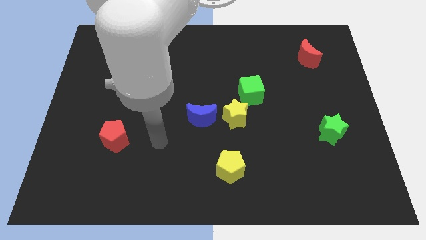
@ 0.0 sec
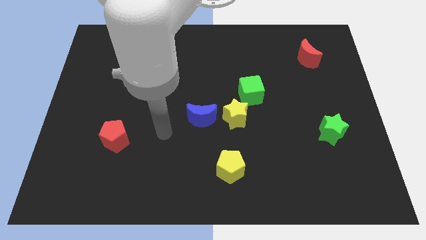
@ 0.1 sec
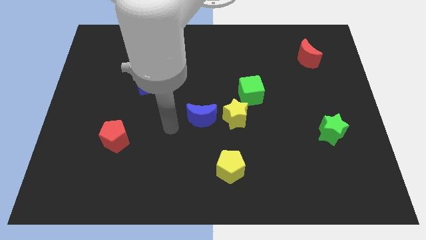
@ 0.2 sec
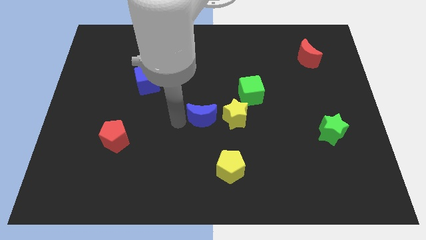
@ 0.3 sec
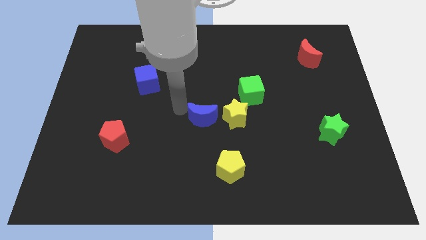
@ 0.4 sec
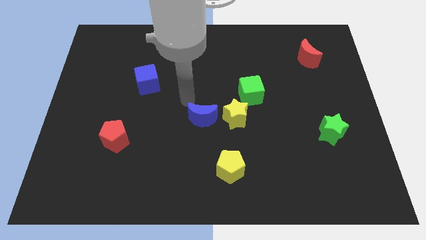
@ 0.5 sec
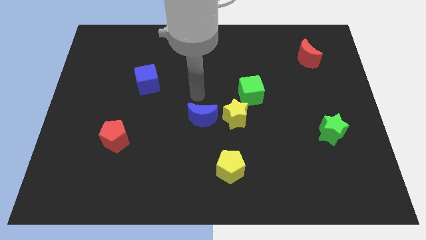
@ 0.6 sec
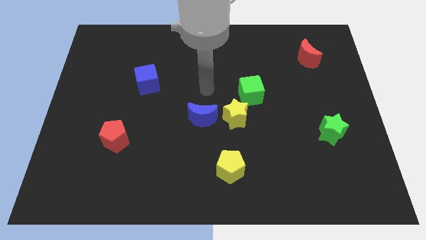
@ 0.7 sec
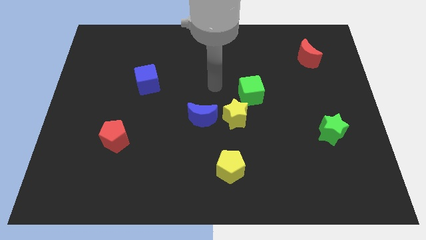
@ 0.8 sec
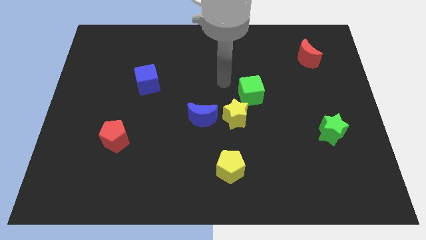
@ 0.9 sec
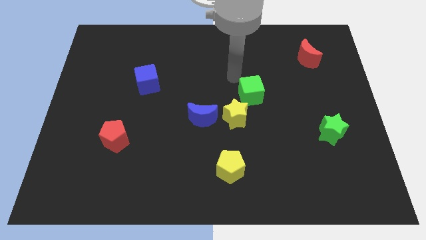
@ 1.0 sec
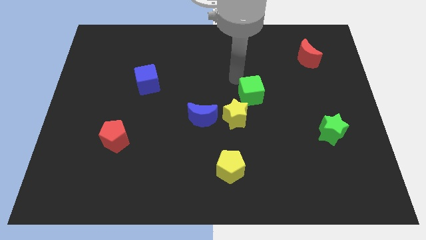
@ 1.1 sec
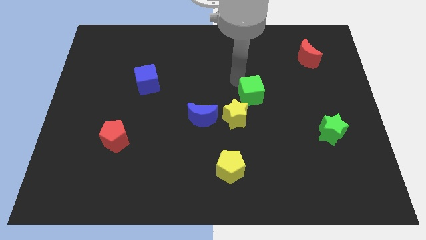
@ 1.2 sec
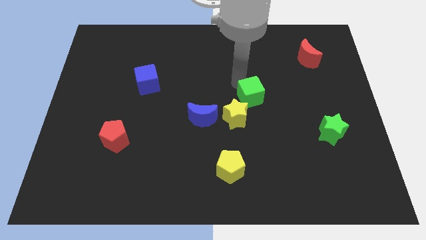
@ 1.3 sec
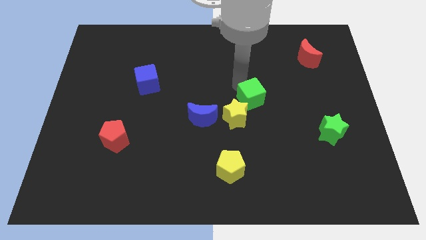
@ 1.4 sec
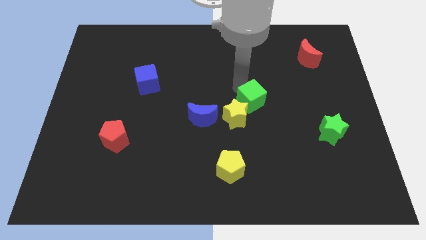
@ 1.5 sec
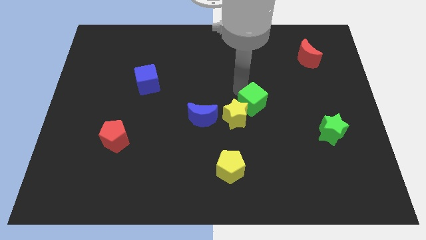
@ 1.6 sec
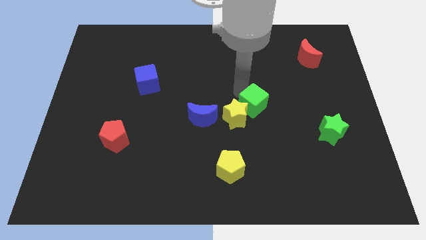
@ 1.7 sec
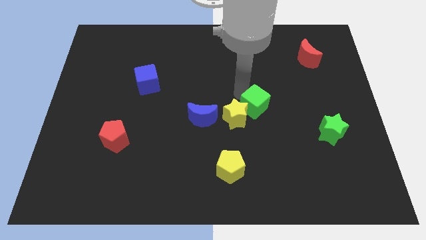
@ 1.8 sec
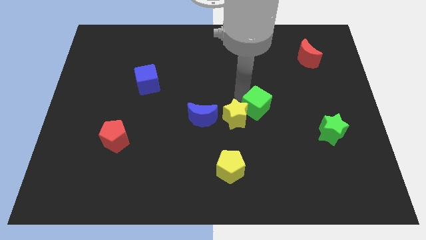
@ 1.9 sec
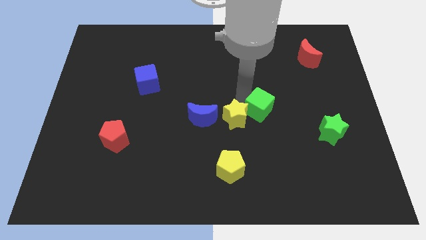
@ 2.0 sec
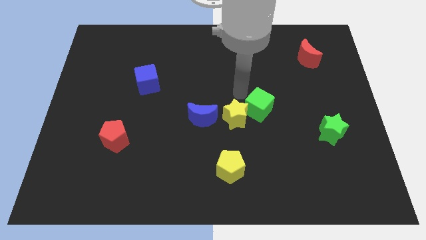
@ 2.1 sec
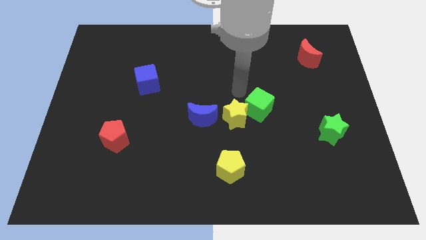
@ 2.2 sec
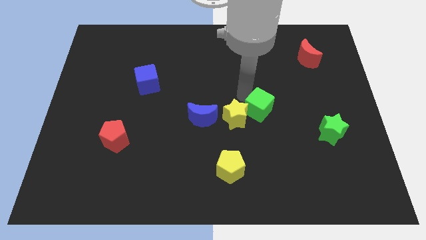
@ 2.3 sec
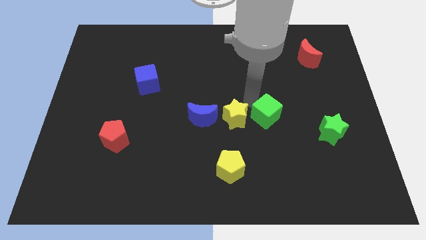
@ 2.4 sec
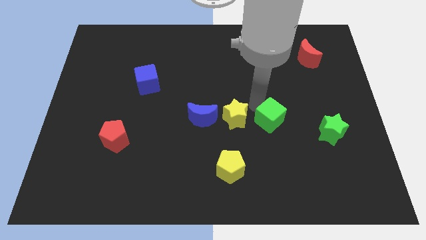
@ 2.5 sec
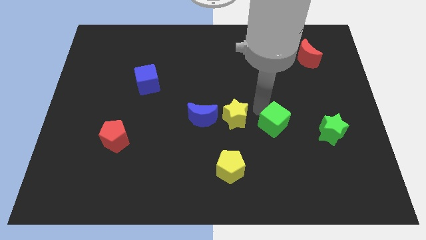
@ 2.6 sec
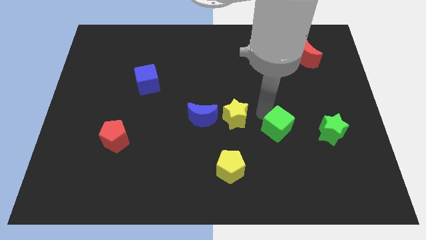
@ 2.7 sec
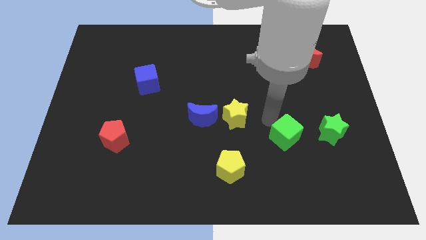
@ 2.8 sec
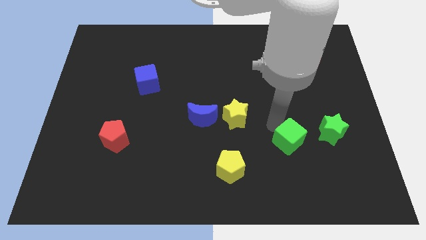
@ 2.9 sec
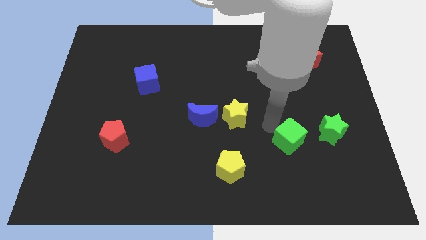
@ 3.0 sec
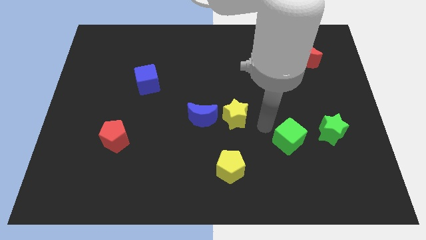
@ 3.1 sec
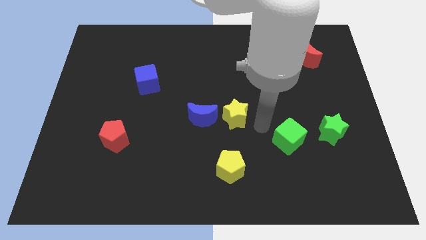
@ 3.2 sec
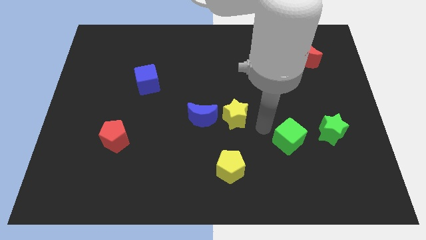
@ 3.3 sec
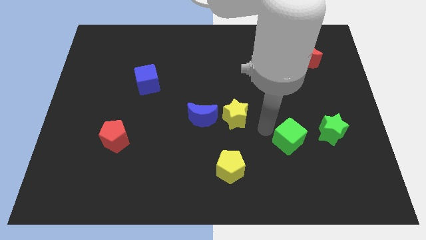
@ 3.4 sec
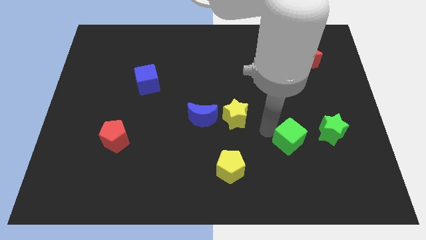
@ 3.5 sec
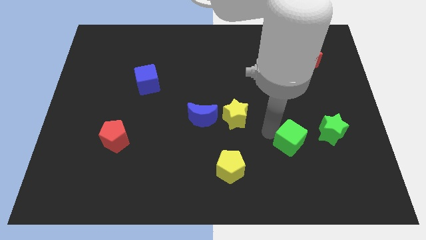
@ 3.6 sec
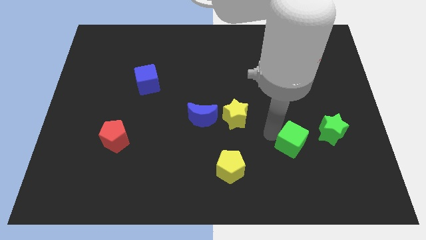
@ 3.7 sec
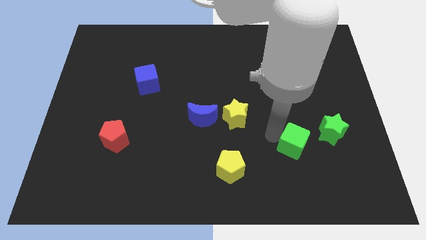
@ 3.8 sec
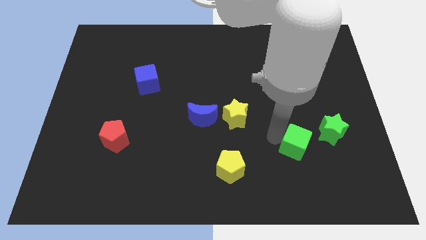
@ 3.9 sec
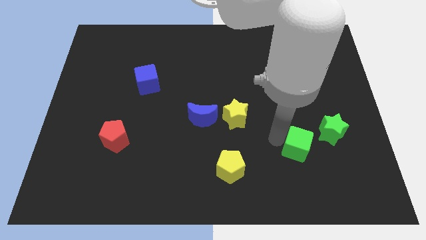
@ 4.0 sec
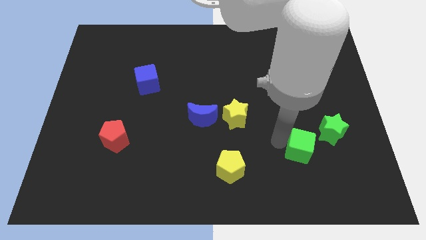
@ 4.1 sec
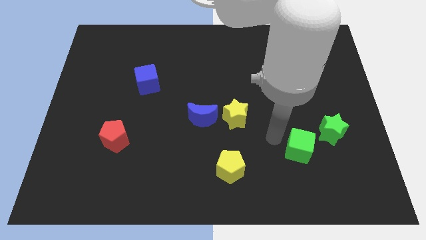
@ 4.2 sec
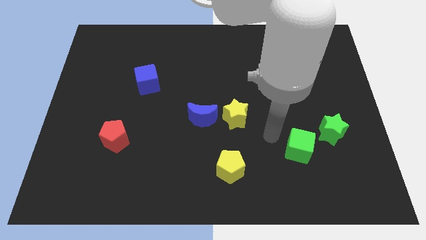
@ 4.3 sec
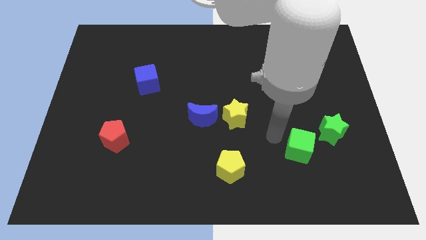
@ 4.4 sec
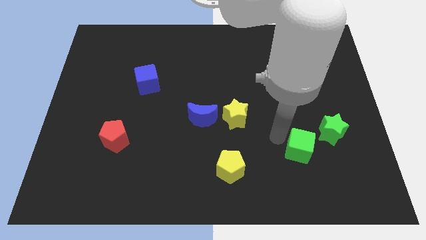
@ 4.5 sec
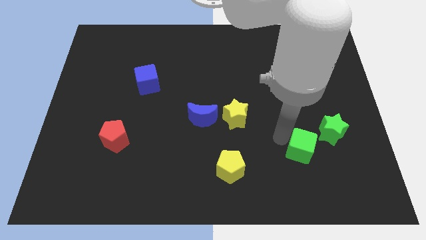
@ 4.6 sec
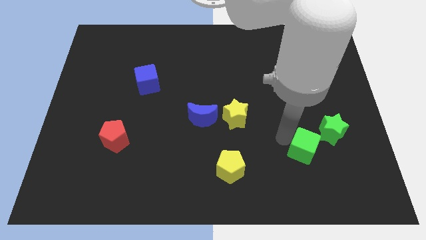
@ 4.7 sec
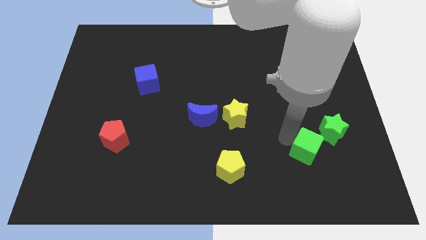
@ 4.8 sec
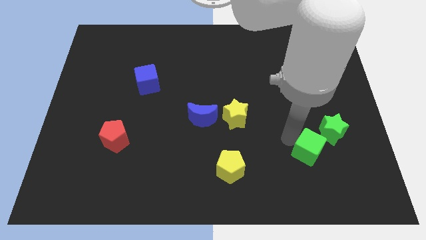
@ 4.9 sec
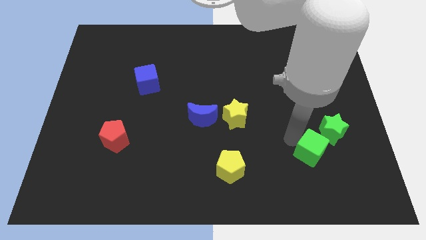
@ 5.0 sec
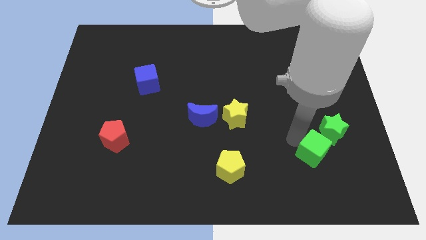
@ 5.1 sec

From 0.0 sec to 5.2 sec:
slide the green cube to the bottom side of the green star

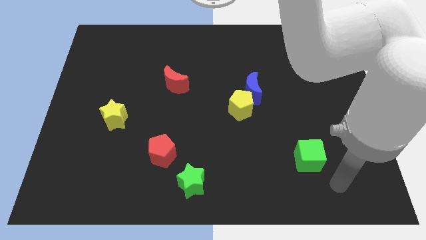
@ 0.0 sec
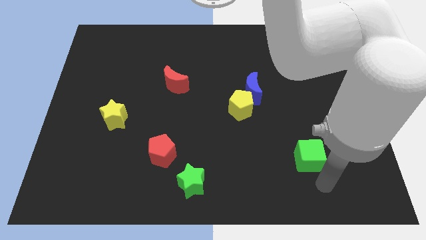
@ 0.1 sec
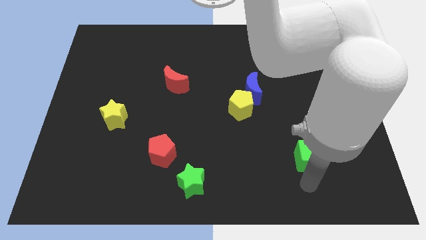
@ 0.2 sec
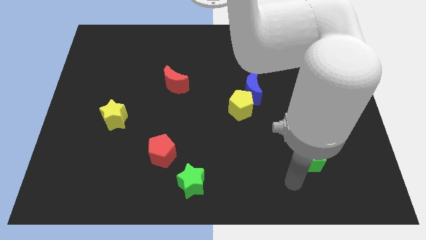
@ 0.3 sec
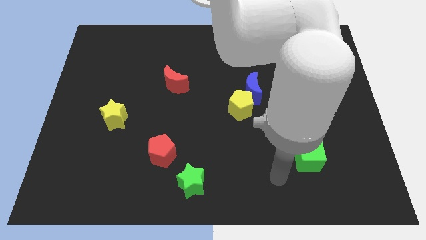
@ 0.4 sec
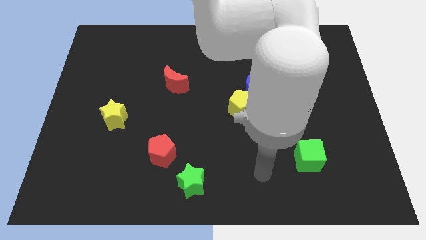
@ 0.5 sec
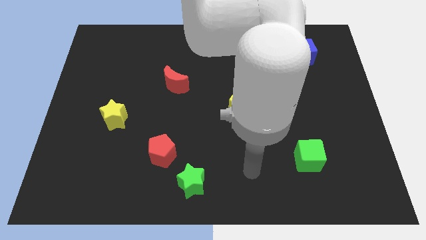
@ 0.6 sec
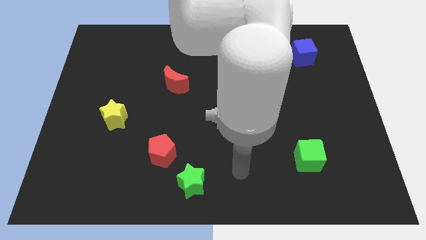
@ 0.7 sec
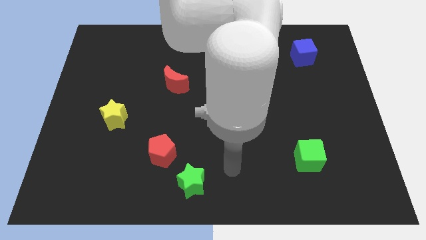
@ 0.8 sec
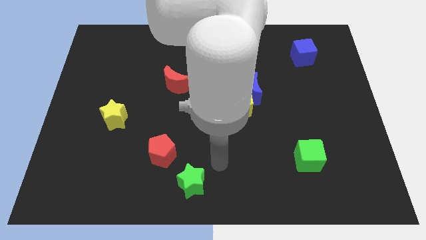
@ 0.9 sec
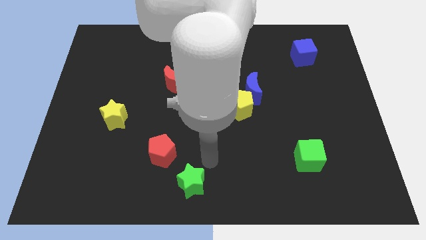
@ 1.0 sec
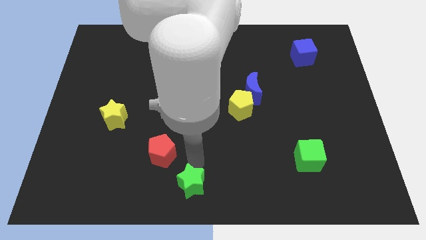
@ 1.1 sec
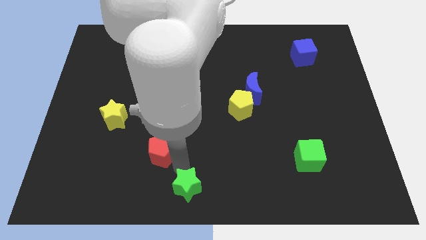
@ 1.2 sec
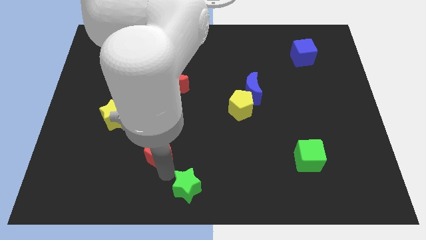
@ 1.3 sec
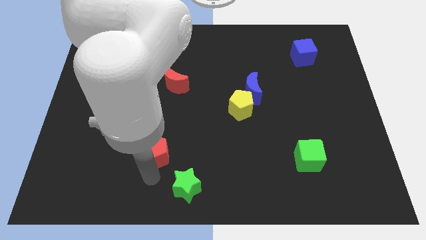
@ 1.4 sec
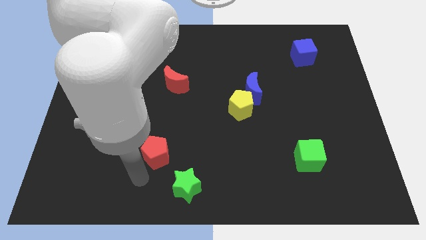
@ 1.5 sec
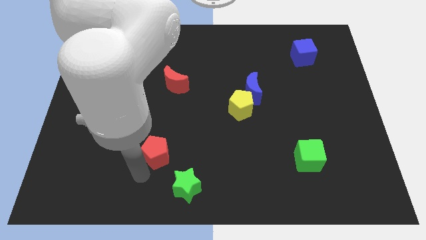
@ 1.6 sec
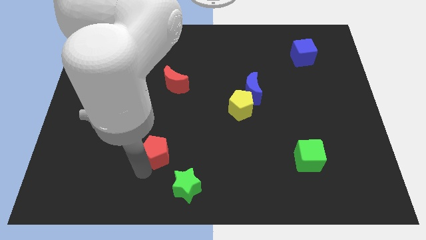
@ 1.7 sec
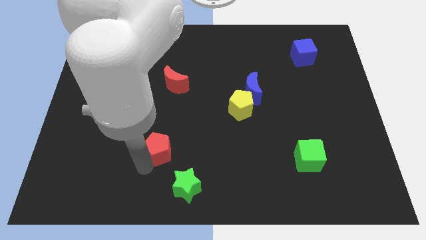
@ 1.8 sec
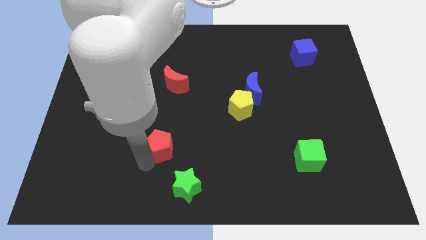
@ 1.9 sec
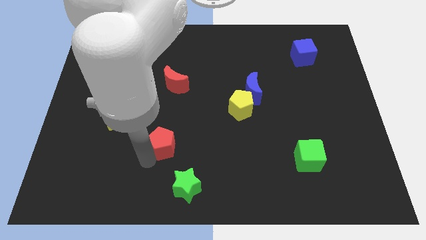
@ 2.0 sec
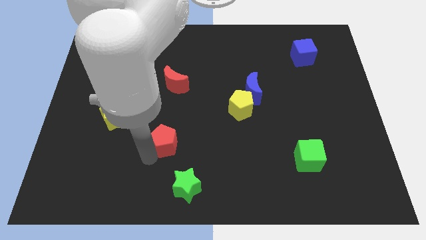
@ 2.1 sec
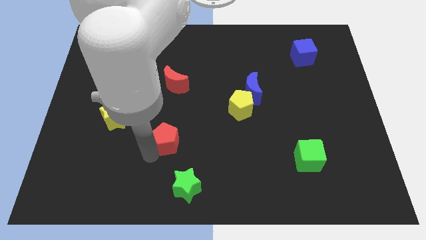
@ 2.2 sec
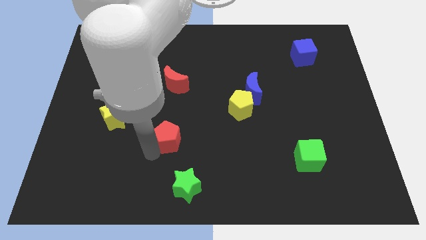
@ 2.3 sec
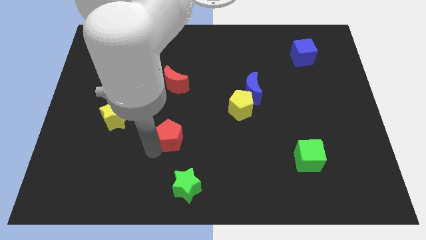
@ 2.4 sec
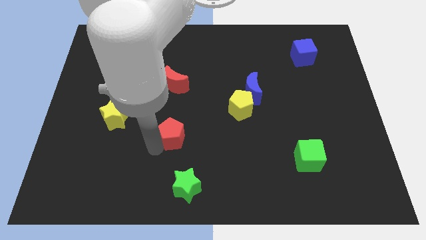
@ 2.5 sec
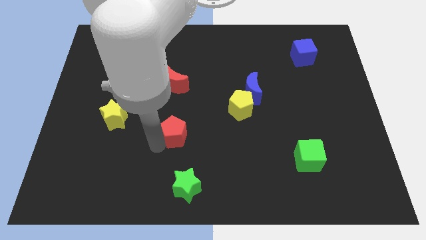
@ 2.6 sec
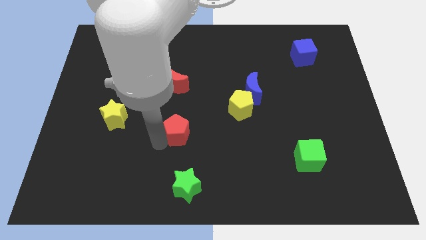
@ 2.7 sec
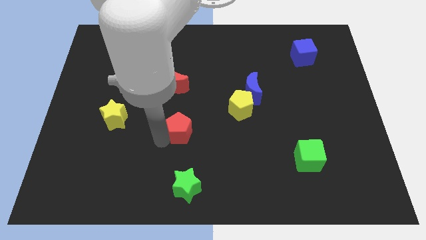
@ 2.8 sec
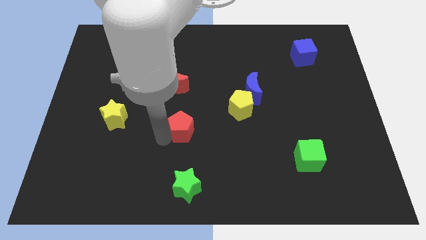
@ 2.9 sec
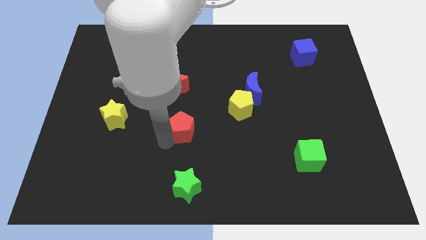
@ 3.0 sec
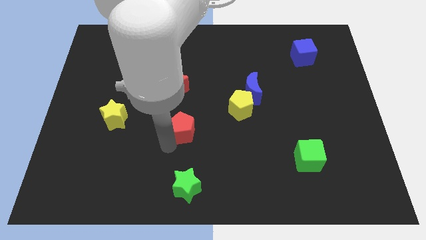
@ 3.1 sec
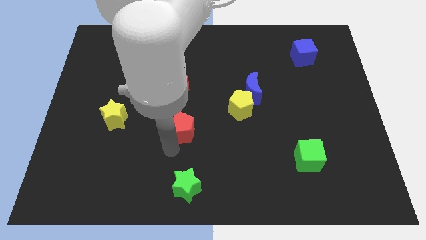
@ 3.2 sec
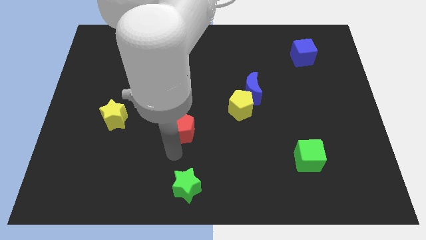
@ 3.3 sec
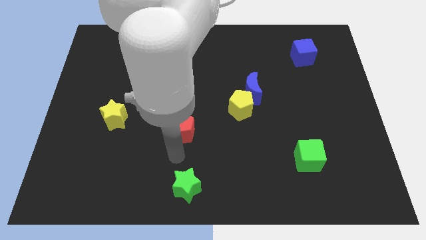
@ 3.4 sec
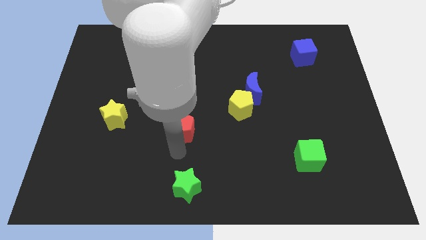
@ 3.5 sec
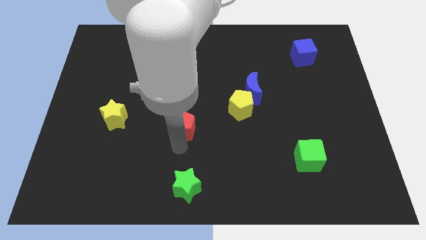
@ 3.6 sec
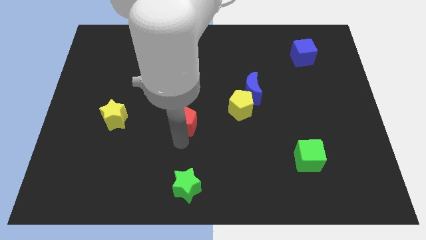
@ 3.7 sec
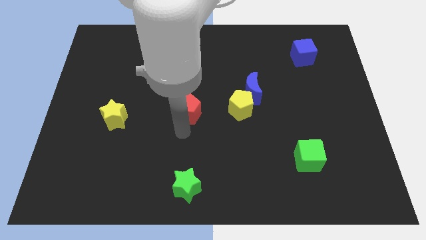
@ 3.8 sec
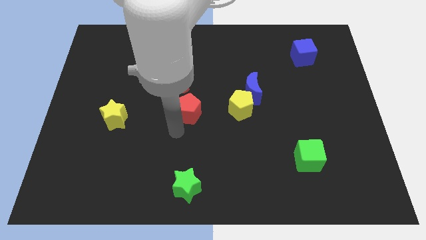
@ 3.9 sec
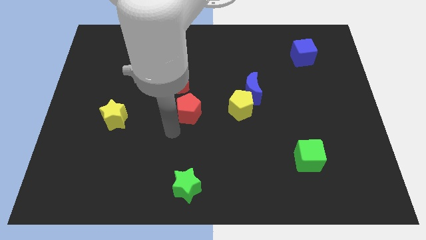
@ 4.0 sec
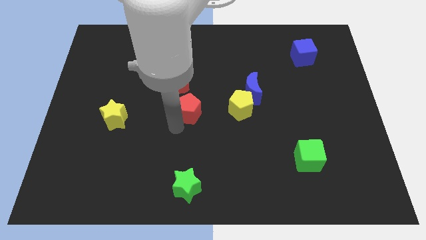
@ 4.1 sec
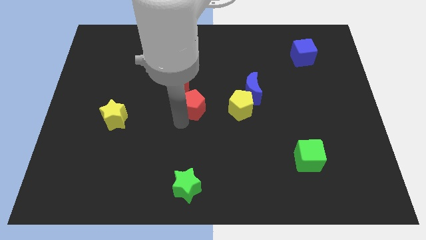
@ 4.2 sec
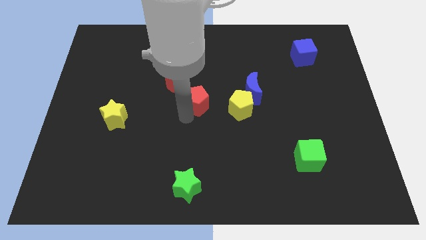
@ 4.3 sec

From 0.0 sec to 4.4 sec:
move the red pentagon left of the blue moon
